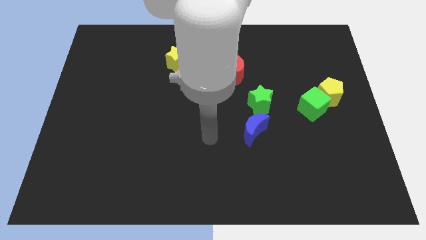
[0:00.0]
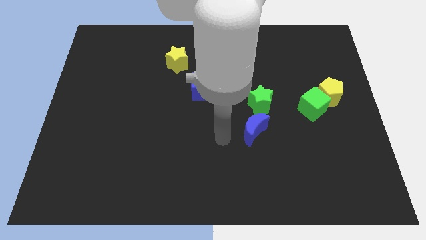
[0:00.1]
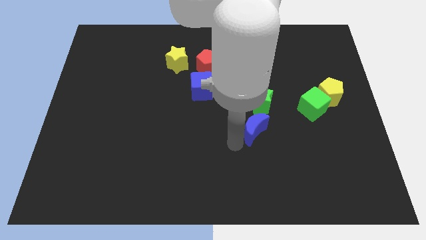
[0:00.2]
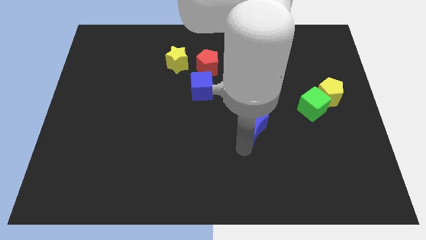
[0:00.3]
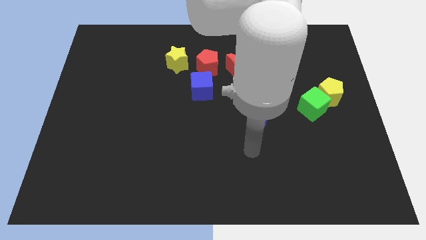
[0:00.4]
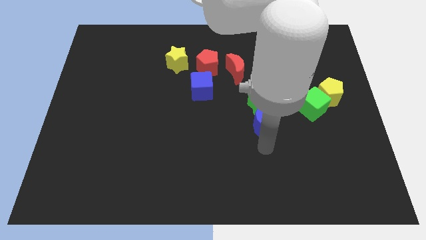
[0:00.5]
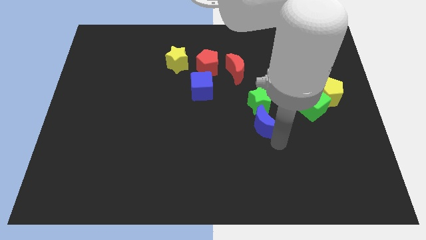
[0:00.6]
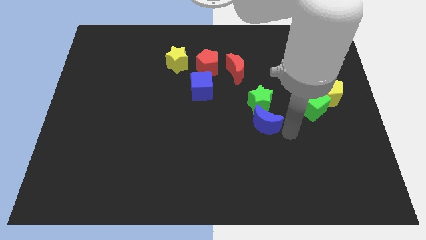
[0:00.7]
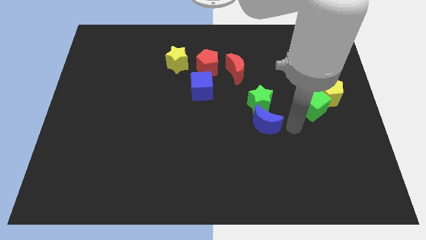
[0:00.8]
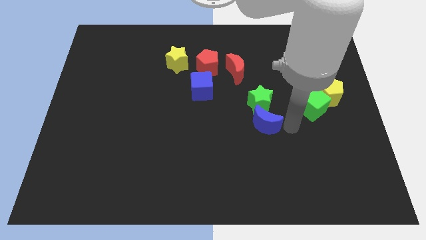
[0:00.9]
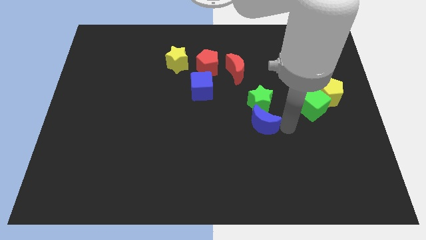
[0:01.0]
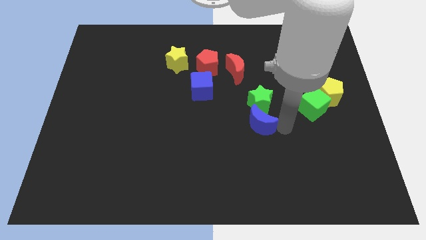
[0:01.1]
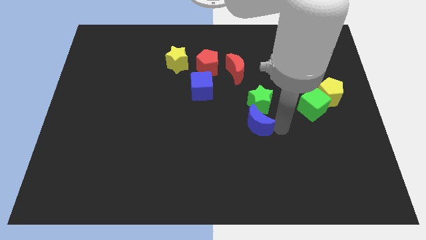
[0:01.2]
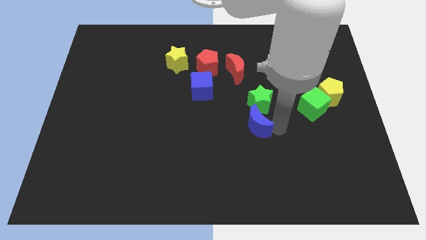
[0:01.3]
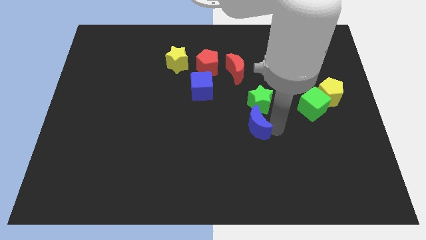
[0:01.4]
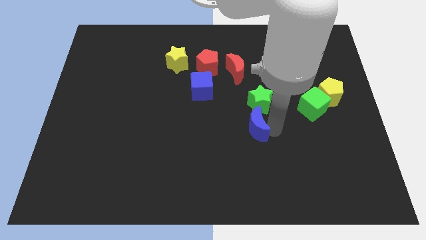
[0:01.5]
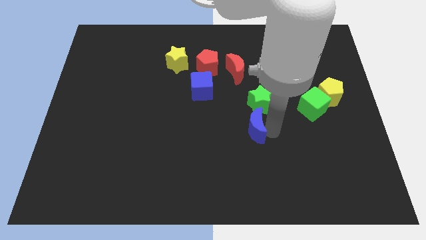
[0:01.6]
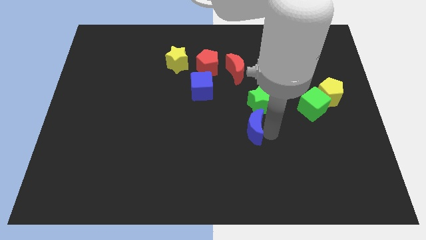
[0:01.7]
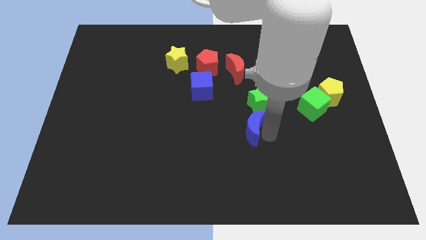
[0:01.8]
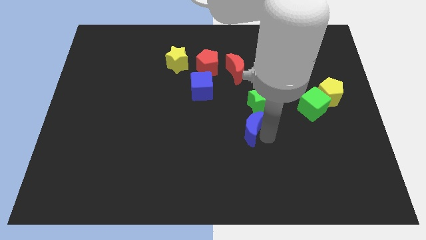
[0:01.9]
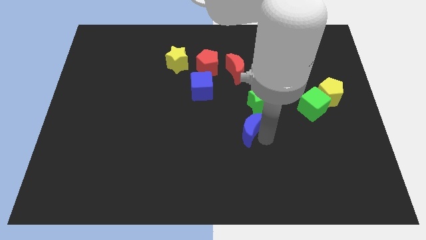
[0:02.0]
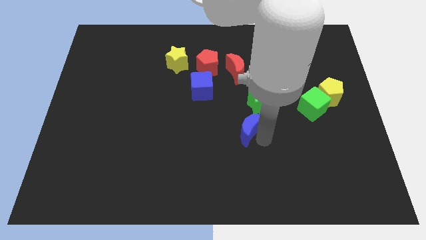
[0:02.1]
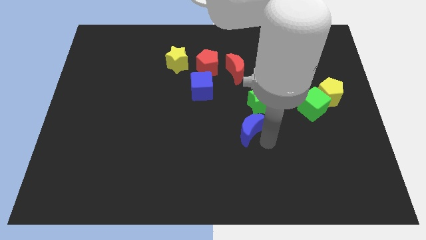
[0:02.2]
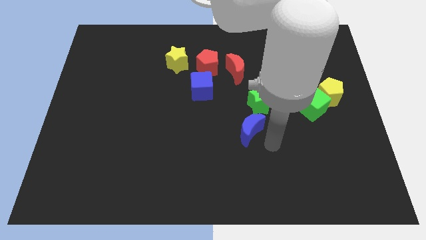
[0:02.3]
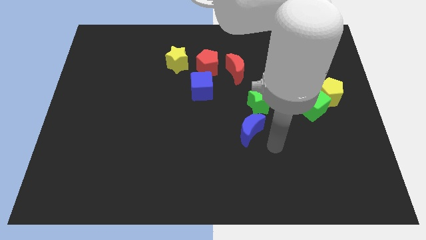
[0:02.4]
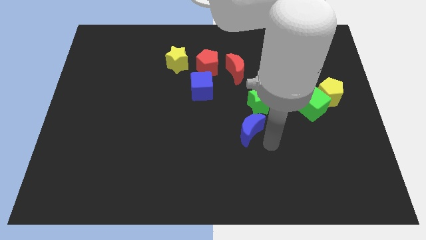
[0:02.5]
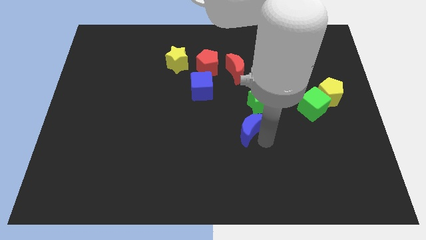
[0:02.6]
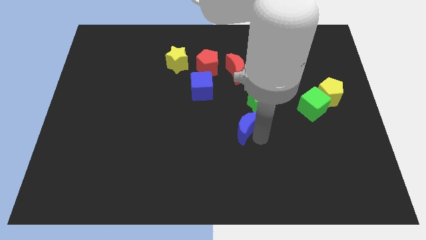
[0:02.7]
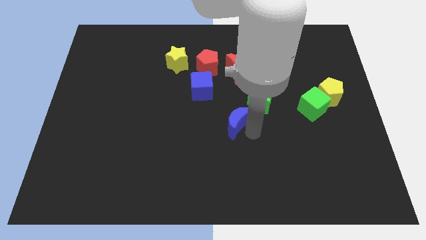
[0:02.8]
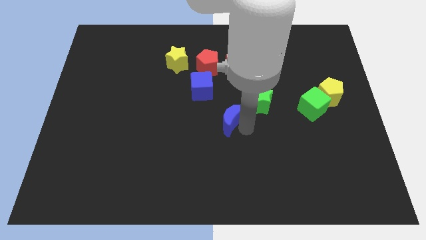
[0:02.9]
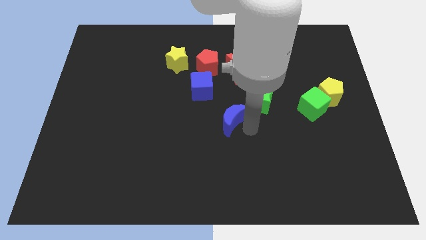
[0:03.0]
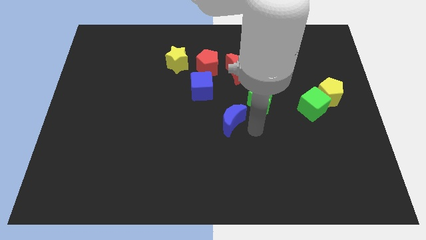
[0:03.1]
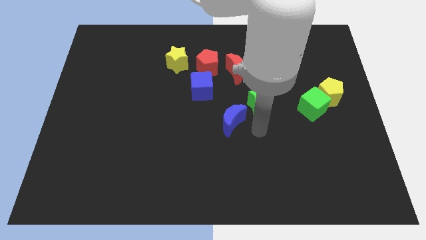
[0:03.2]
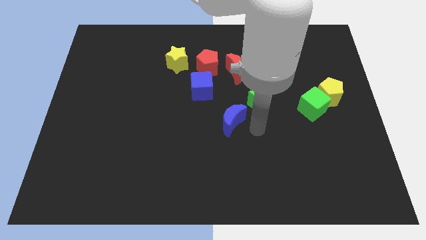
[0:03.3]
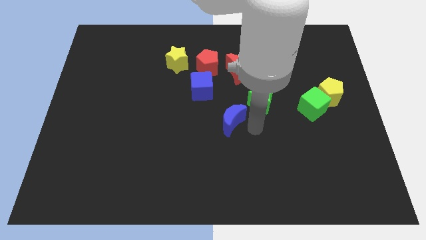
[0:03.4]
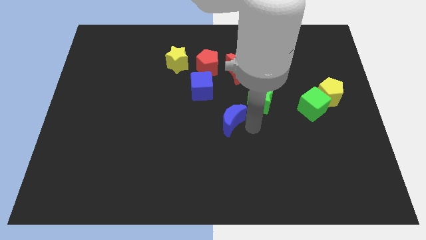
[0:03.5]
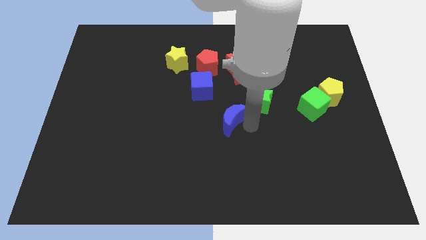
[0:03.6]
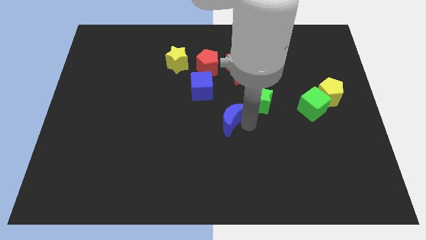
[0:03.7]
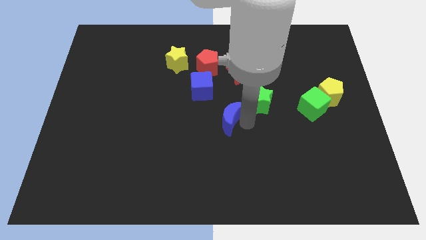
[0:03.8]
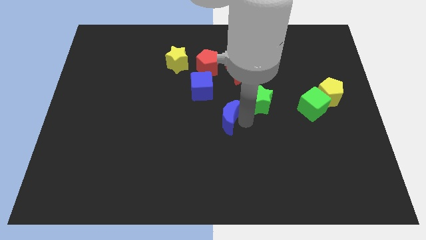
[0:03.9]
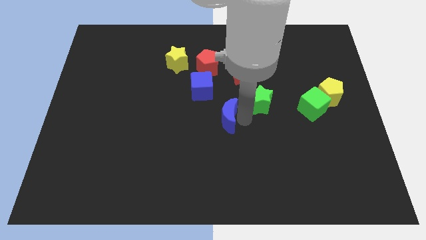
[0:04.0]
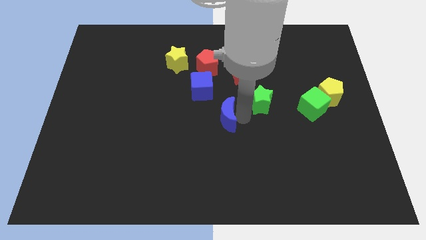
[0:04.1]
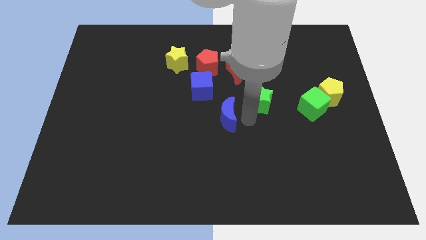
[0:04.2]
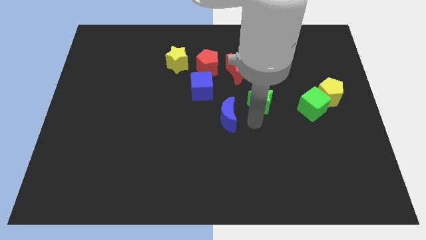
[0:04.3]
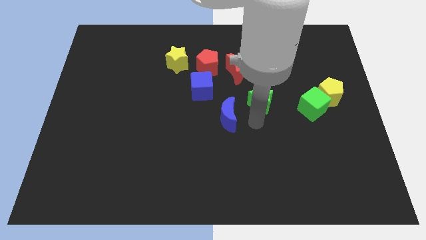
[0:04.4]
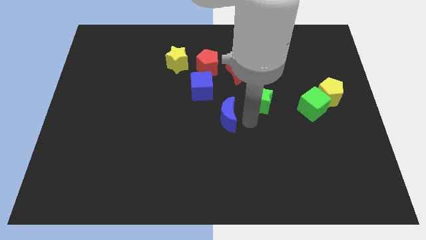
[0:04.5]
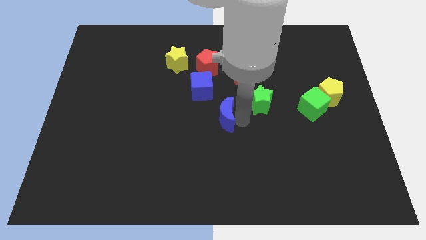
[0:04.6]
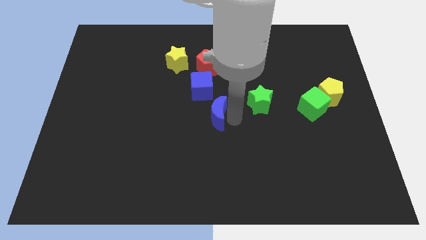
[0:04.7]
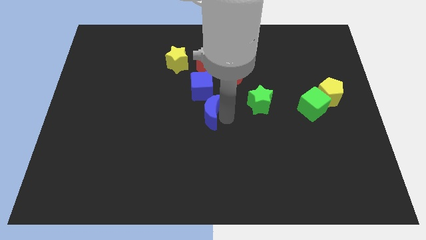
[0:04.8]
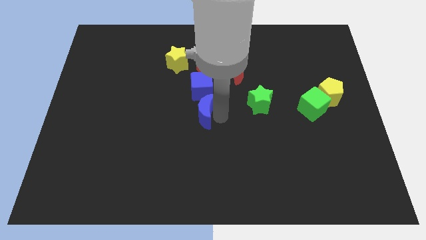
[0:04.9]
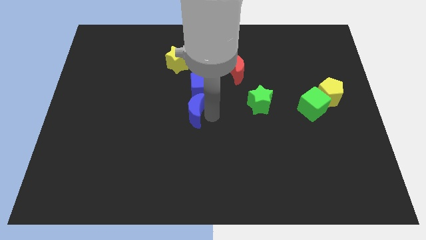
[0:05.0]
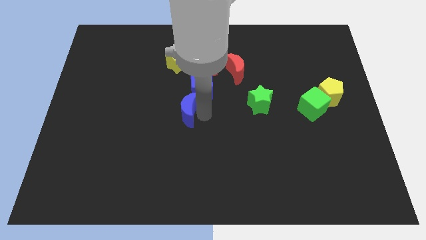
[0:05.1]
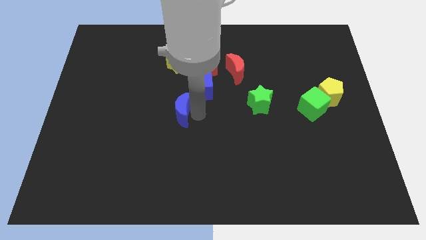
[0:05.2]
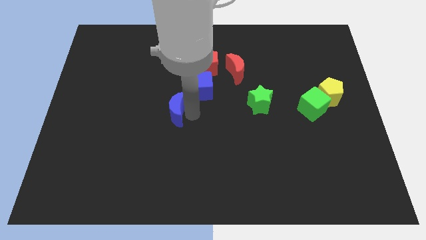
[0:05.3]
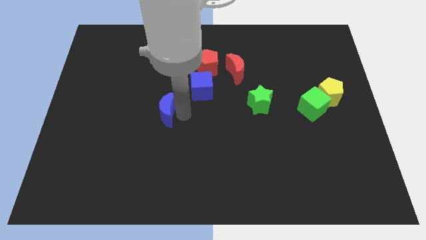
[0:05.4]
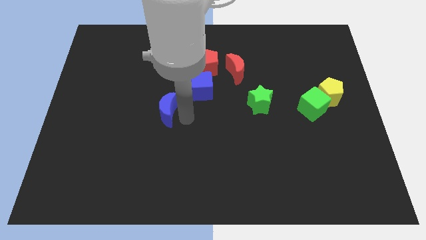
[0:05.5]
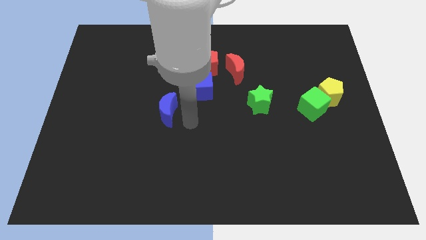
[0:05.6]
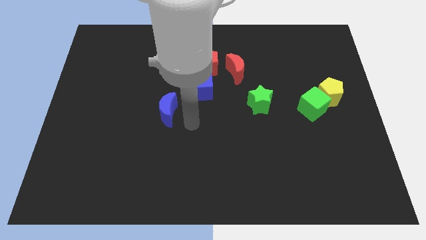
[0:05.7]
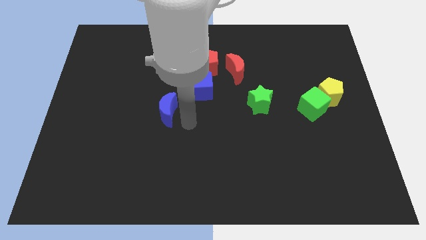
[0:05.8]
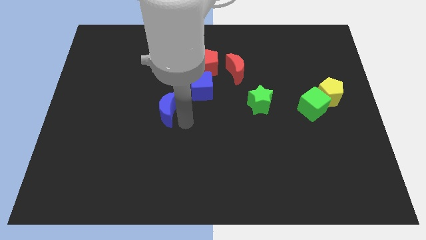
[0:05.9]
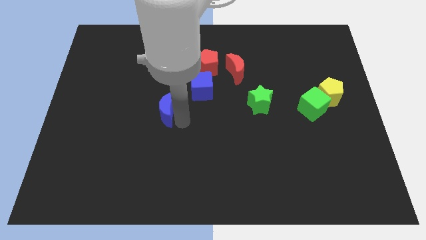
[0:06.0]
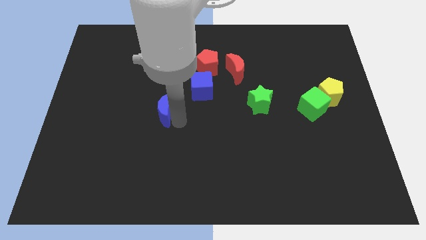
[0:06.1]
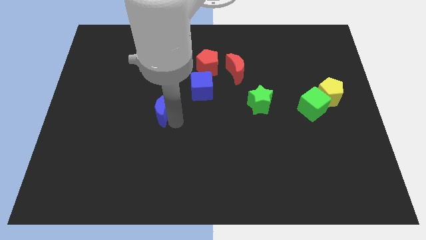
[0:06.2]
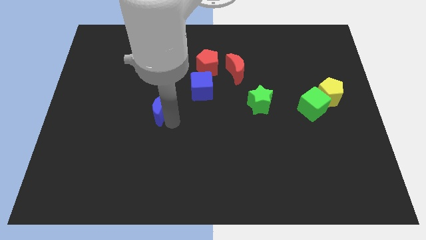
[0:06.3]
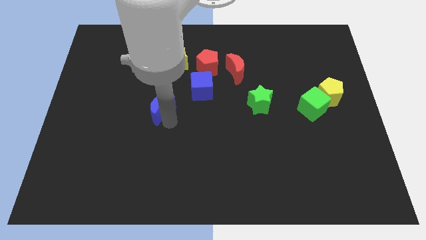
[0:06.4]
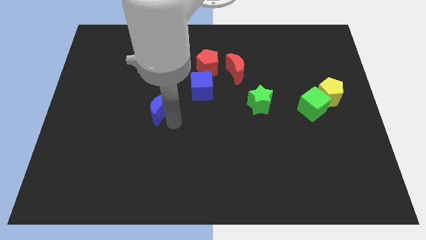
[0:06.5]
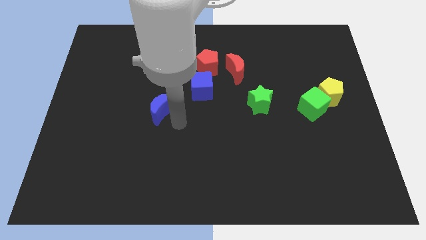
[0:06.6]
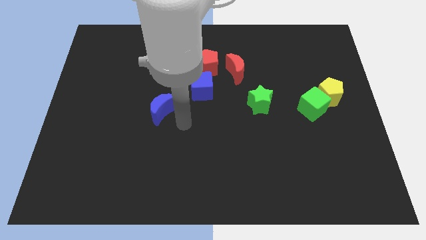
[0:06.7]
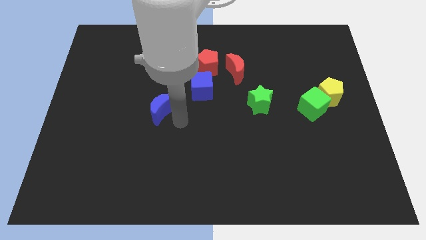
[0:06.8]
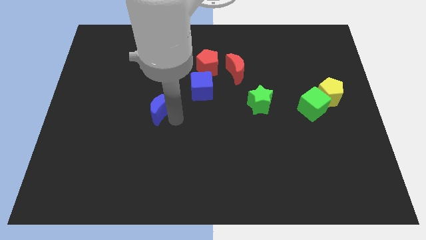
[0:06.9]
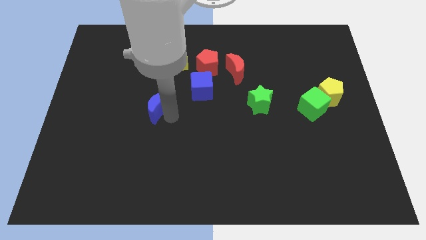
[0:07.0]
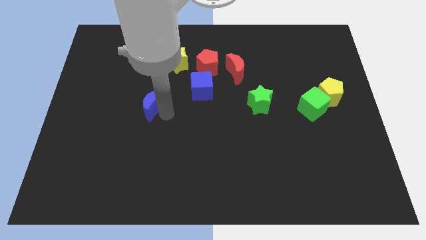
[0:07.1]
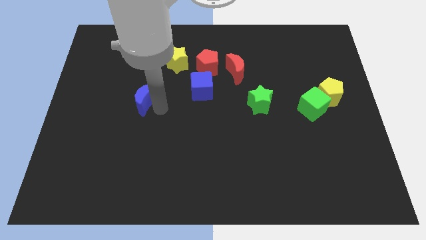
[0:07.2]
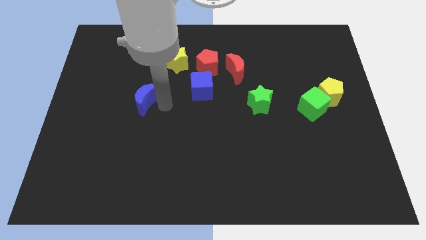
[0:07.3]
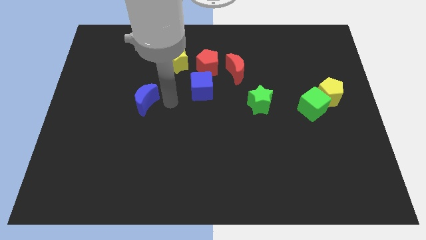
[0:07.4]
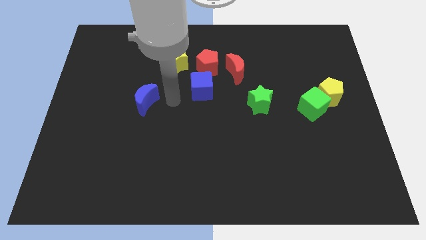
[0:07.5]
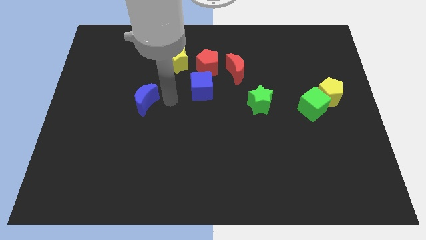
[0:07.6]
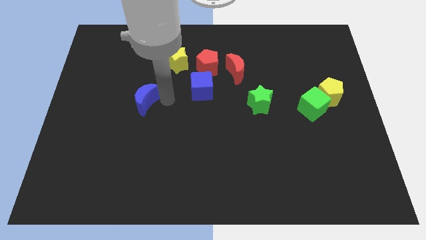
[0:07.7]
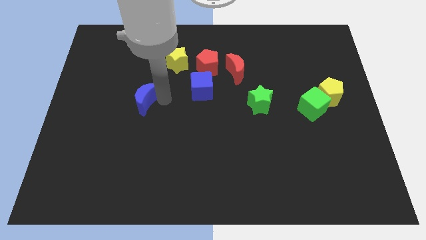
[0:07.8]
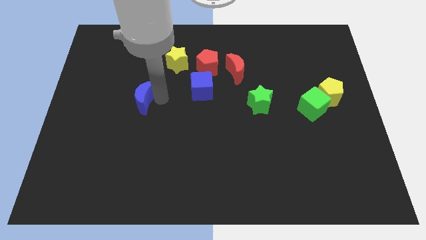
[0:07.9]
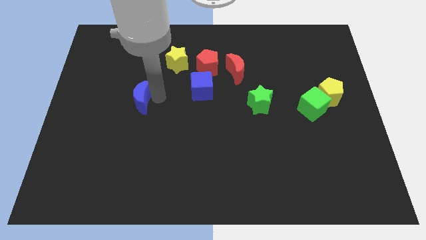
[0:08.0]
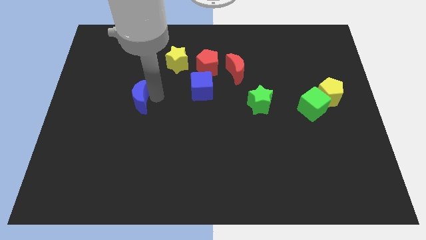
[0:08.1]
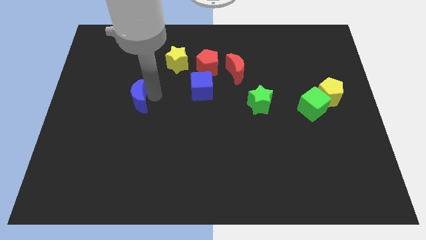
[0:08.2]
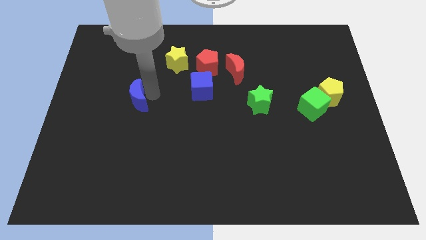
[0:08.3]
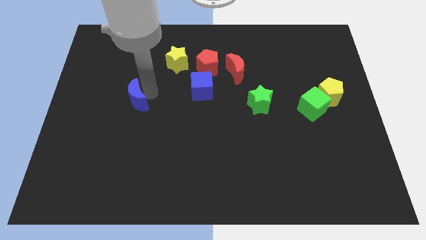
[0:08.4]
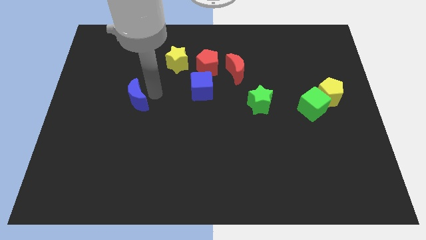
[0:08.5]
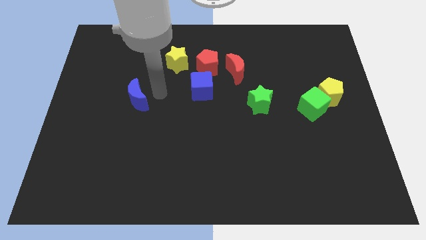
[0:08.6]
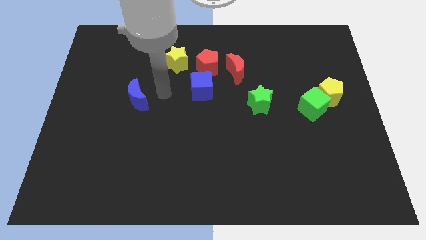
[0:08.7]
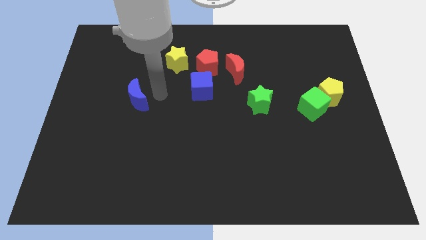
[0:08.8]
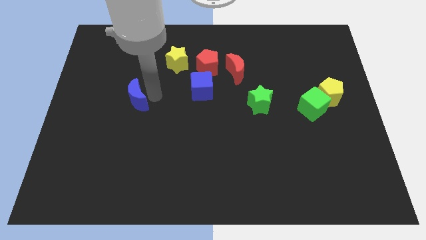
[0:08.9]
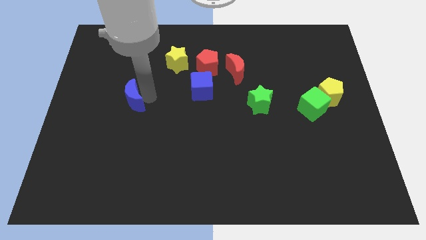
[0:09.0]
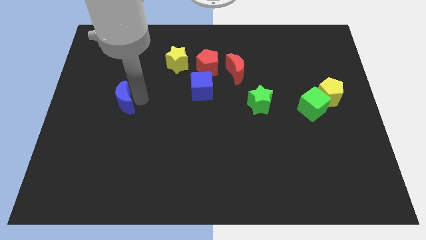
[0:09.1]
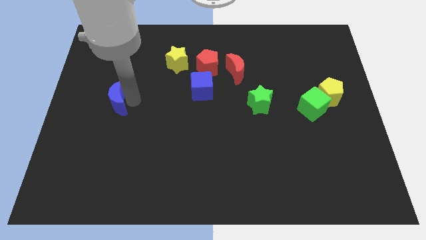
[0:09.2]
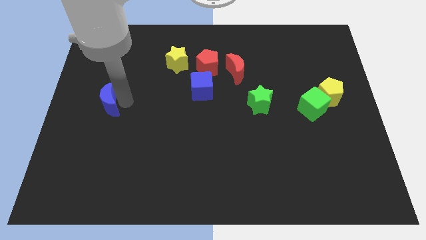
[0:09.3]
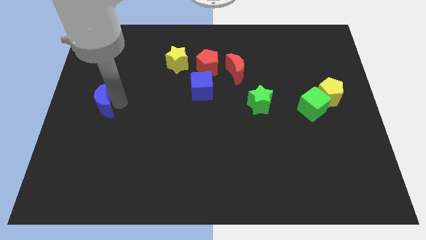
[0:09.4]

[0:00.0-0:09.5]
put the blue moon to the left side
